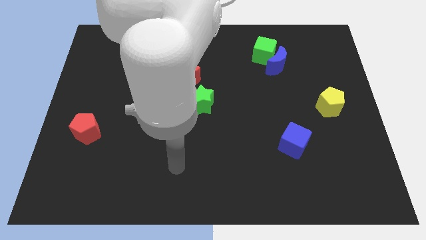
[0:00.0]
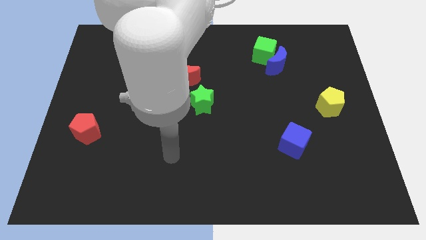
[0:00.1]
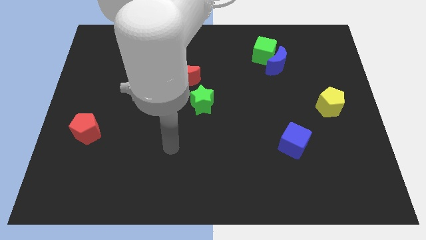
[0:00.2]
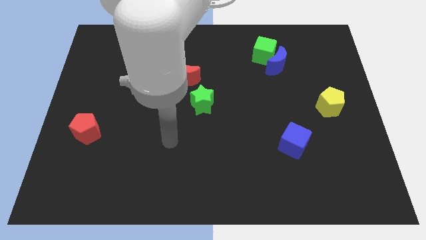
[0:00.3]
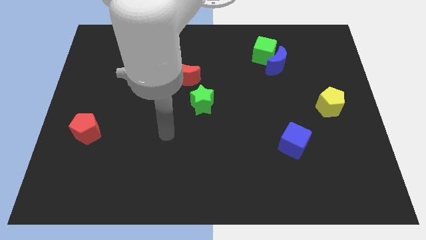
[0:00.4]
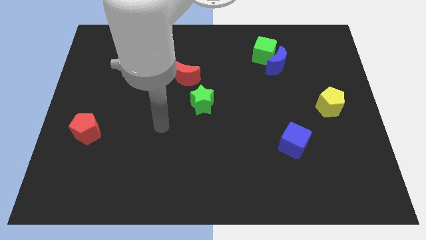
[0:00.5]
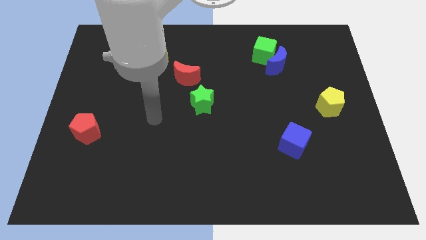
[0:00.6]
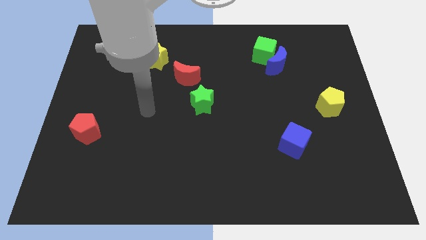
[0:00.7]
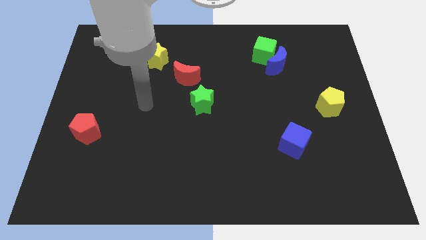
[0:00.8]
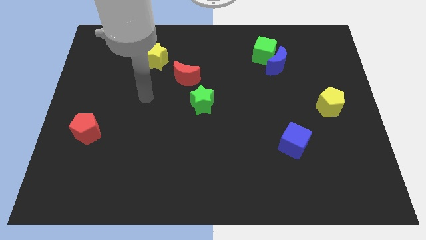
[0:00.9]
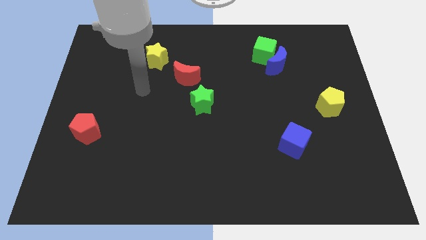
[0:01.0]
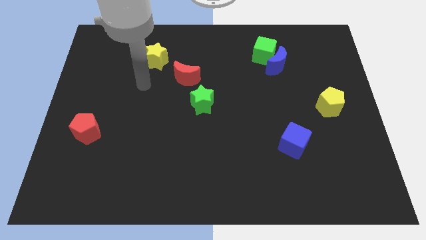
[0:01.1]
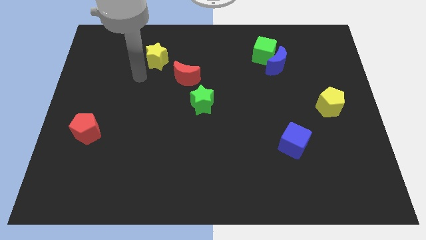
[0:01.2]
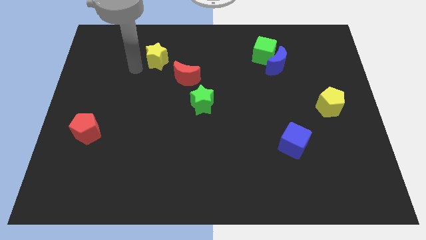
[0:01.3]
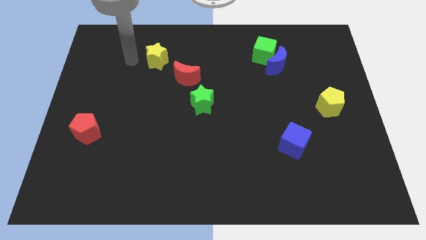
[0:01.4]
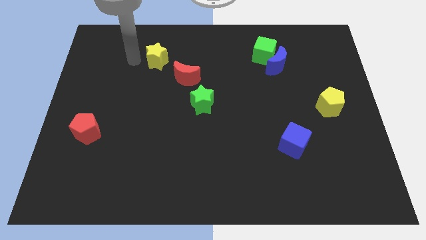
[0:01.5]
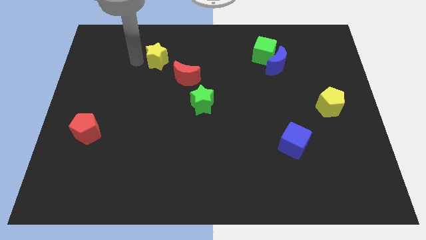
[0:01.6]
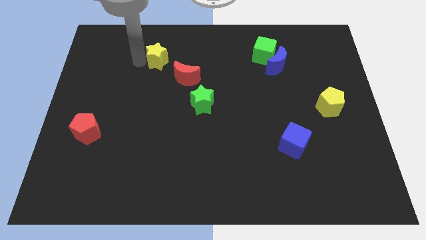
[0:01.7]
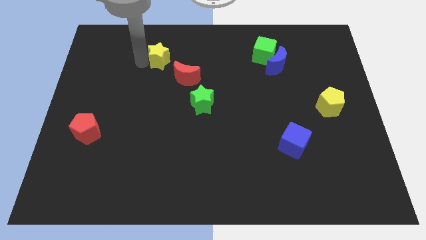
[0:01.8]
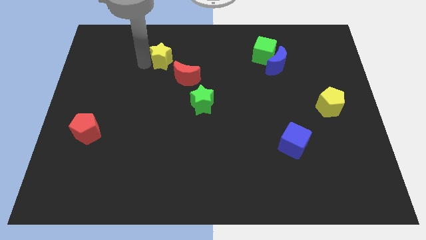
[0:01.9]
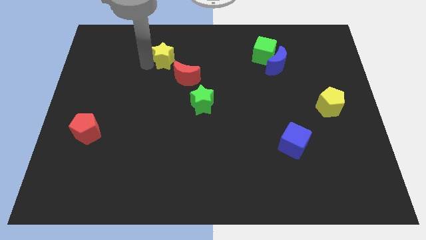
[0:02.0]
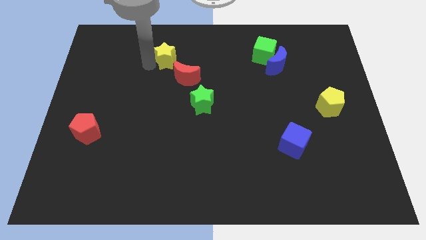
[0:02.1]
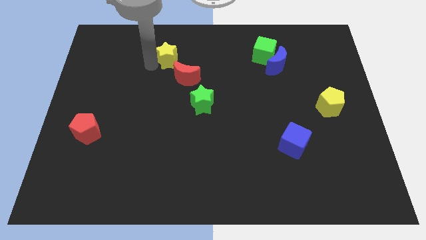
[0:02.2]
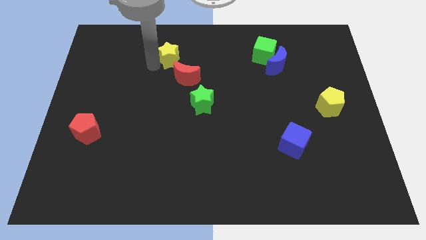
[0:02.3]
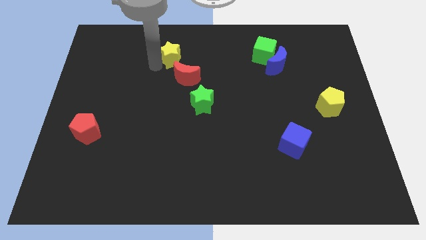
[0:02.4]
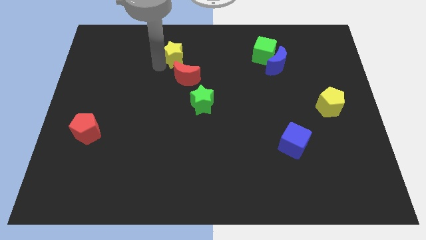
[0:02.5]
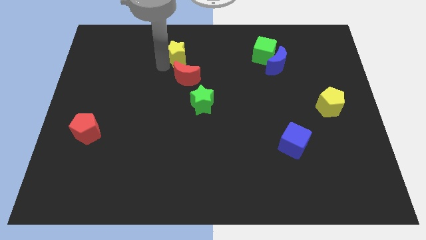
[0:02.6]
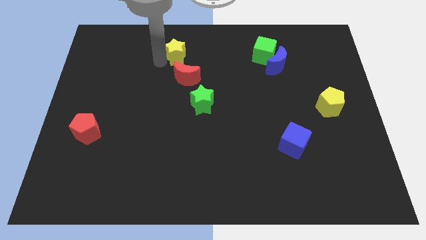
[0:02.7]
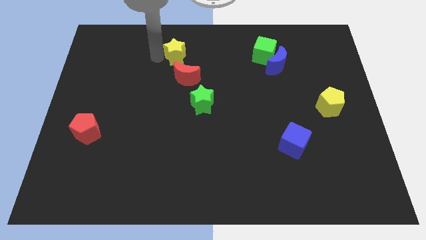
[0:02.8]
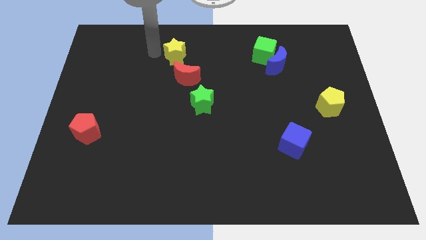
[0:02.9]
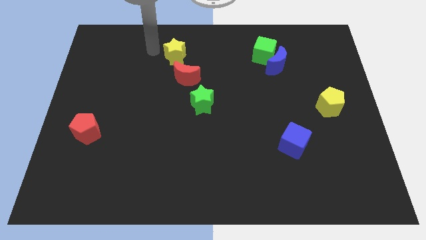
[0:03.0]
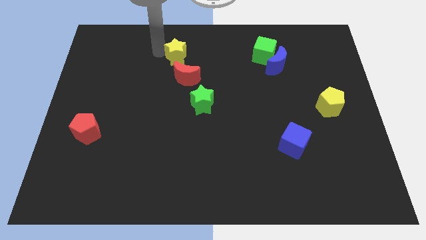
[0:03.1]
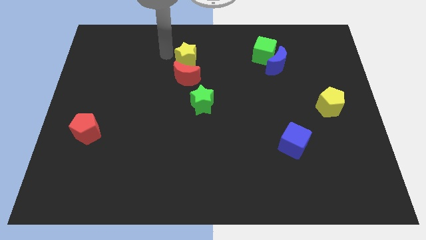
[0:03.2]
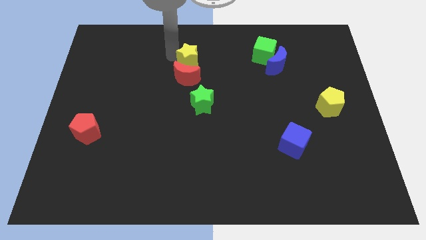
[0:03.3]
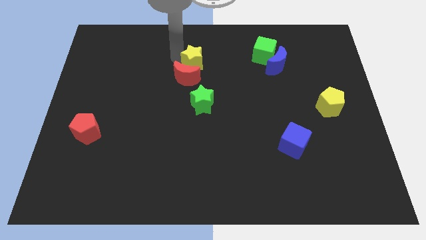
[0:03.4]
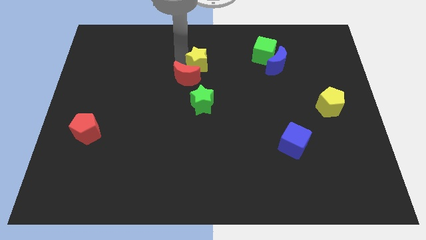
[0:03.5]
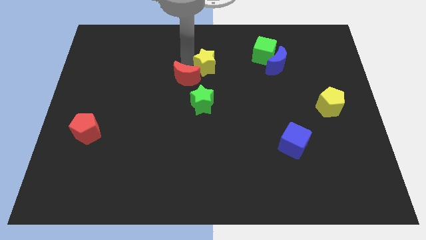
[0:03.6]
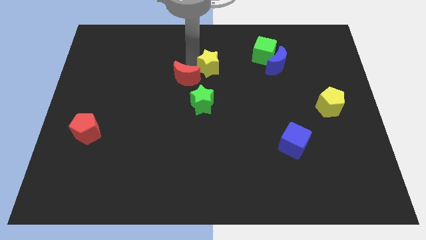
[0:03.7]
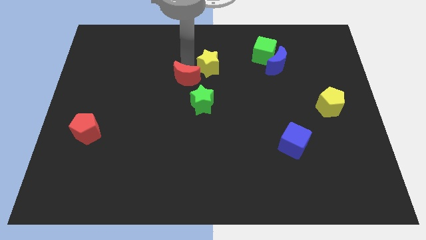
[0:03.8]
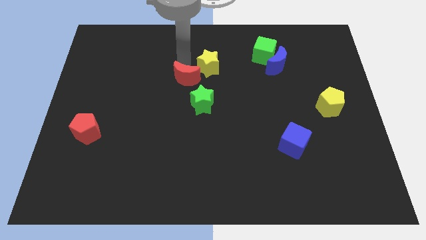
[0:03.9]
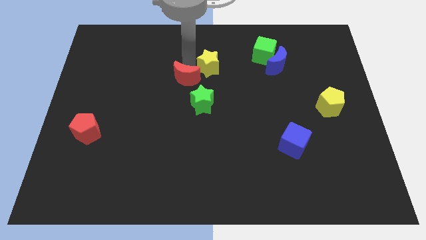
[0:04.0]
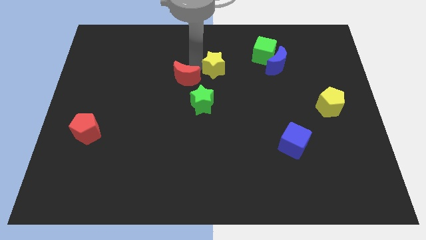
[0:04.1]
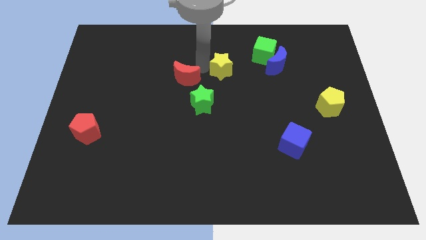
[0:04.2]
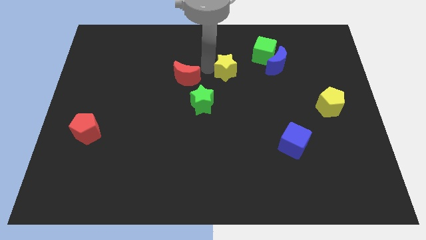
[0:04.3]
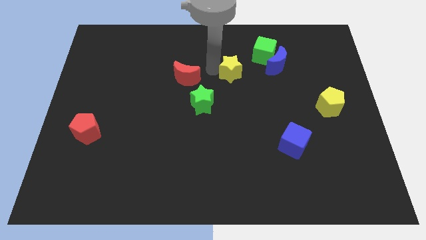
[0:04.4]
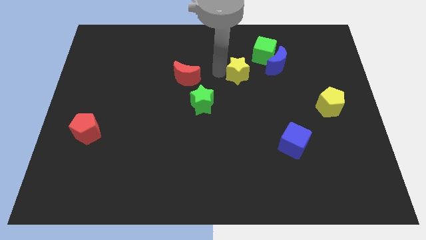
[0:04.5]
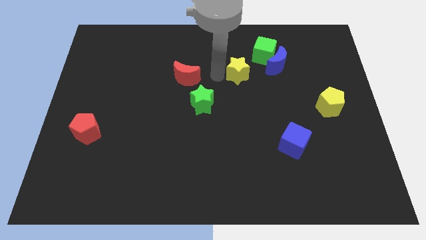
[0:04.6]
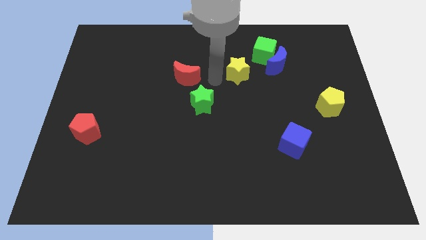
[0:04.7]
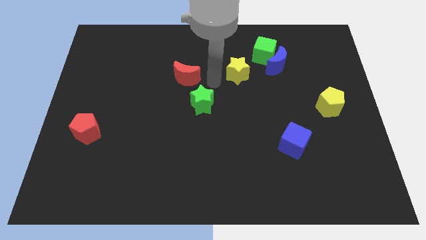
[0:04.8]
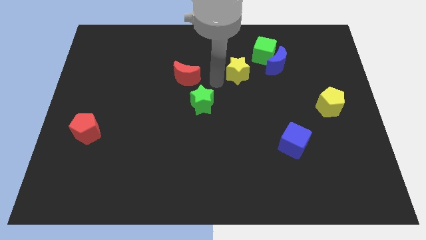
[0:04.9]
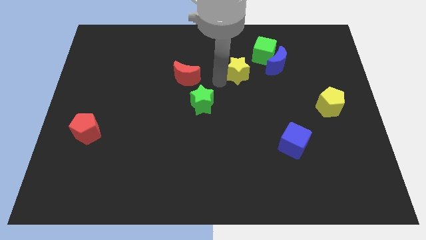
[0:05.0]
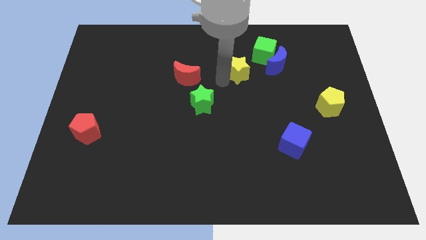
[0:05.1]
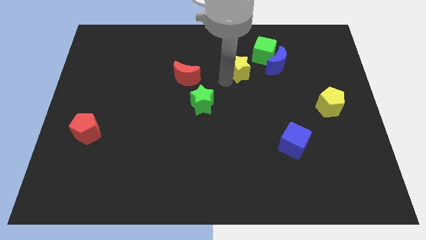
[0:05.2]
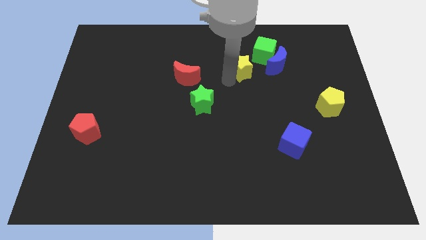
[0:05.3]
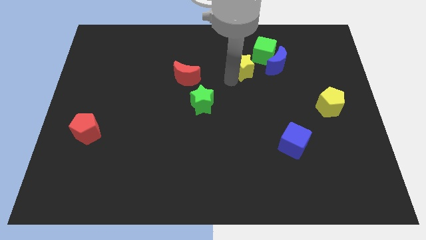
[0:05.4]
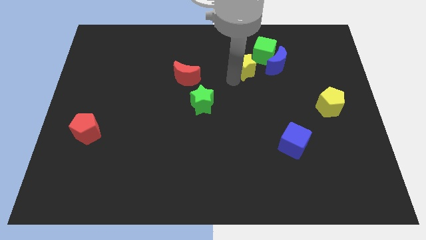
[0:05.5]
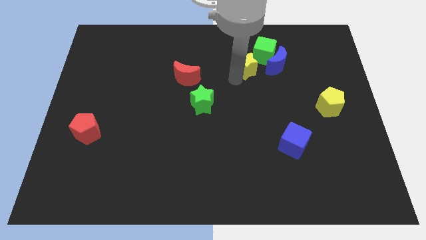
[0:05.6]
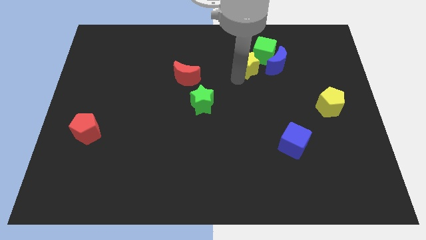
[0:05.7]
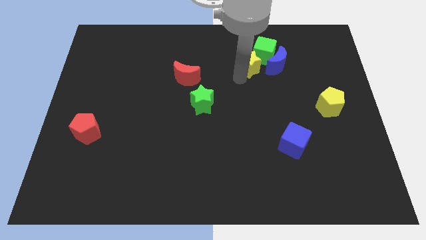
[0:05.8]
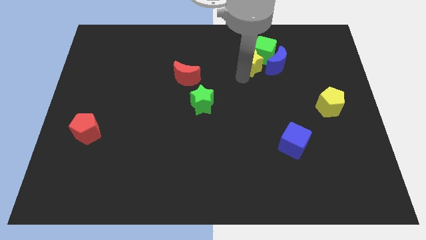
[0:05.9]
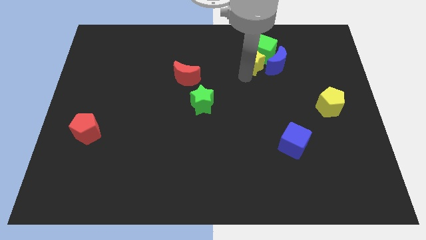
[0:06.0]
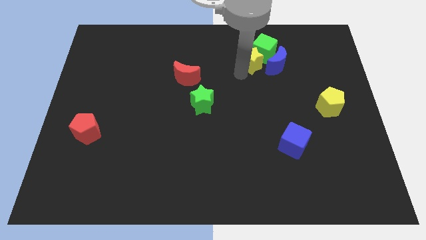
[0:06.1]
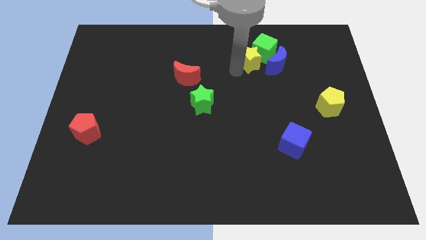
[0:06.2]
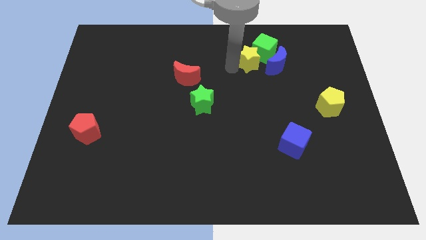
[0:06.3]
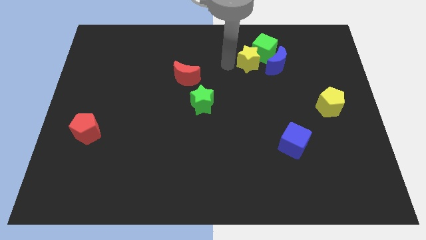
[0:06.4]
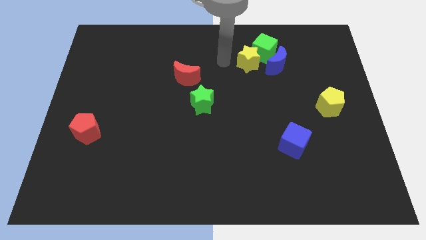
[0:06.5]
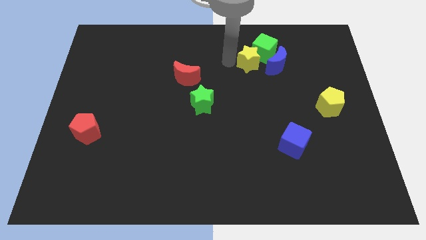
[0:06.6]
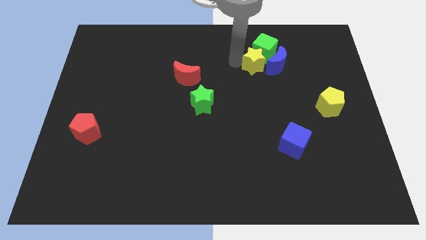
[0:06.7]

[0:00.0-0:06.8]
slide the yellow star next to the blue moon

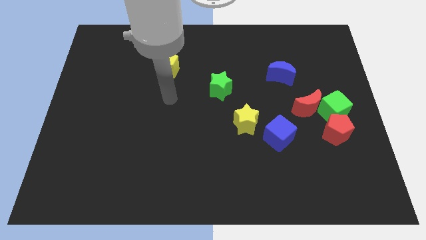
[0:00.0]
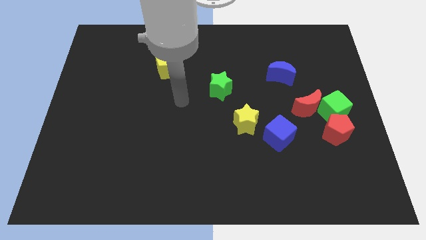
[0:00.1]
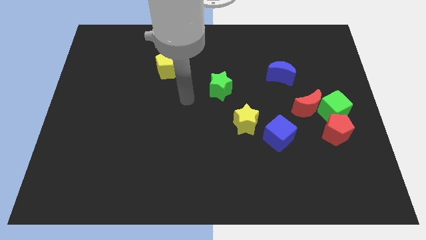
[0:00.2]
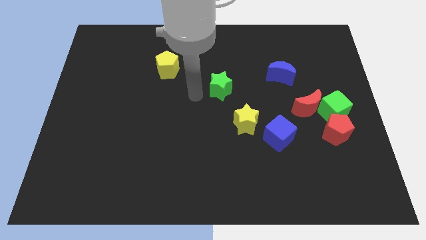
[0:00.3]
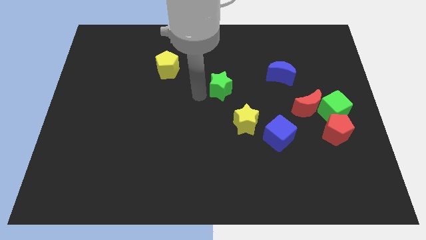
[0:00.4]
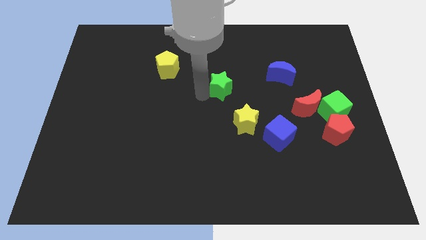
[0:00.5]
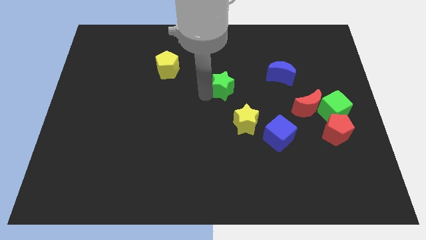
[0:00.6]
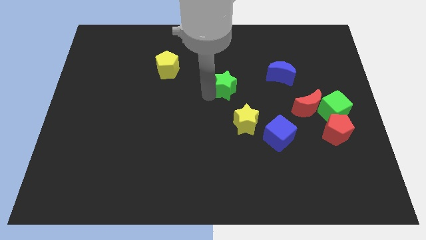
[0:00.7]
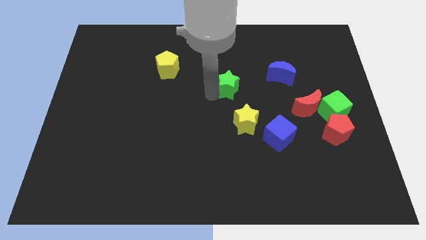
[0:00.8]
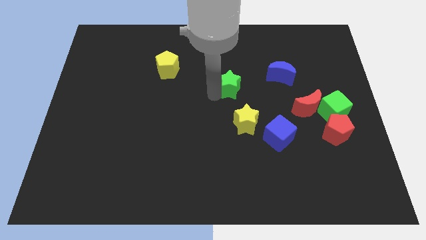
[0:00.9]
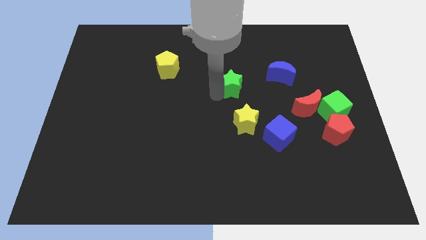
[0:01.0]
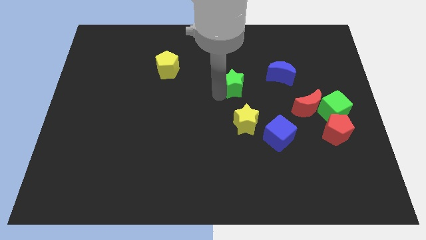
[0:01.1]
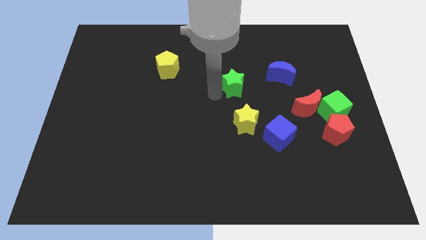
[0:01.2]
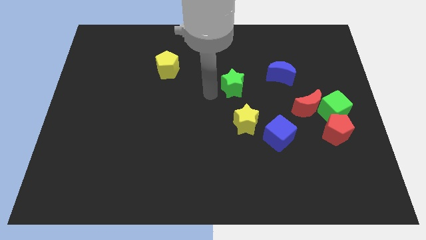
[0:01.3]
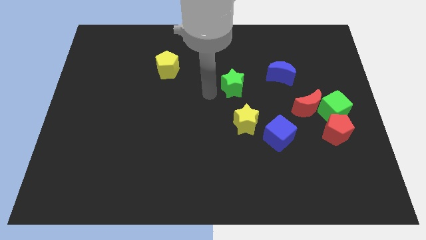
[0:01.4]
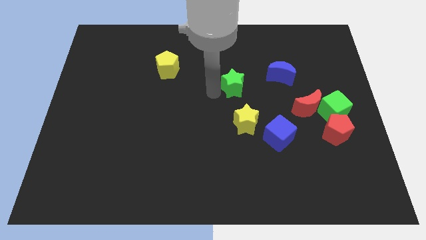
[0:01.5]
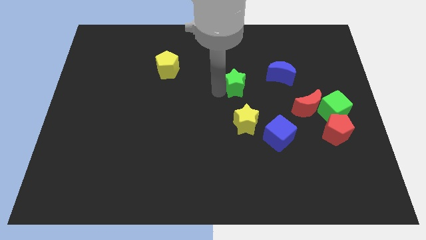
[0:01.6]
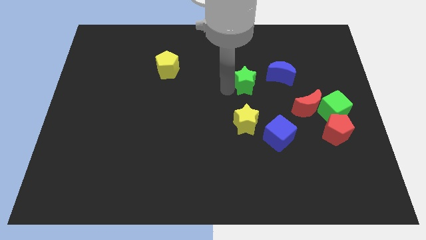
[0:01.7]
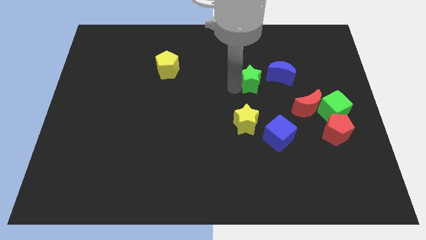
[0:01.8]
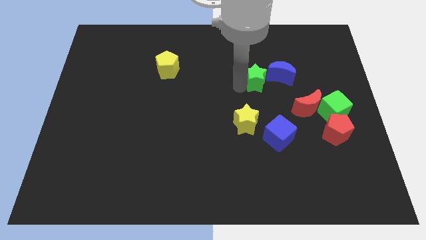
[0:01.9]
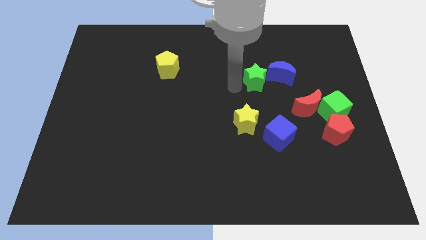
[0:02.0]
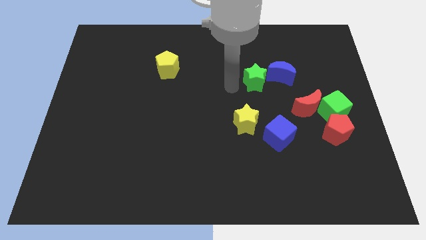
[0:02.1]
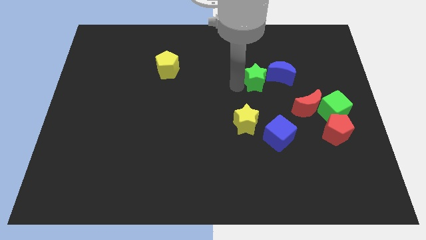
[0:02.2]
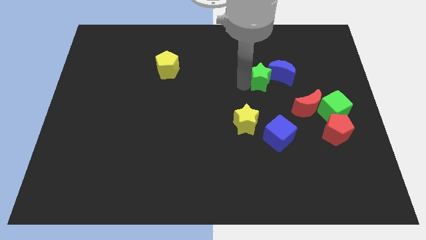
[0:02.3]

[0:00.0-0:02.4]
slide the green star next to the blue moon
